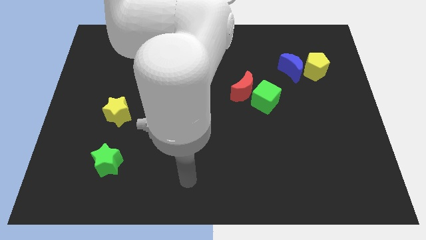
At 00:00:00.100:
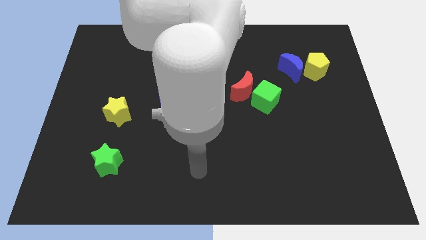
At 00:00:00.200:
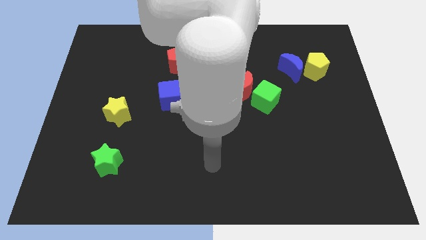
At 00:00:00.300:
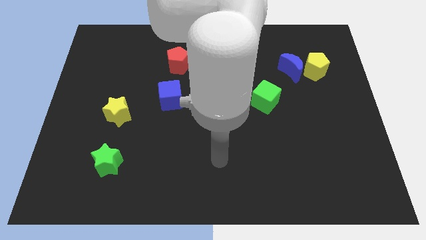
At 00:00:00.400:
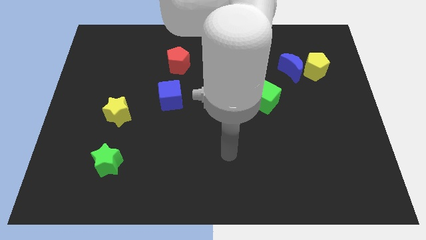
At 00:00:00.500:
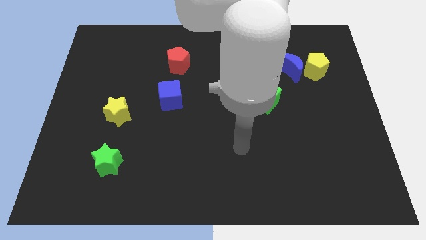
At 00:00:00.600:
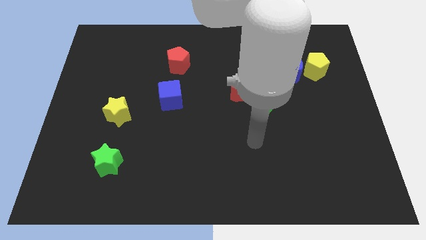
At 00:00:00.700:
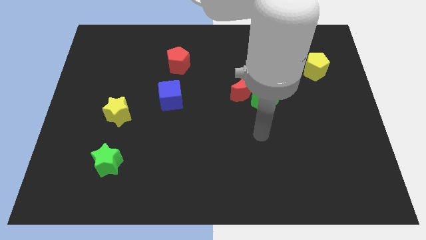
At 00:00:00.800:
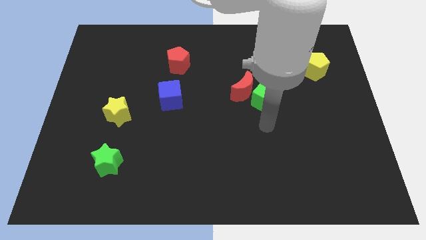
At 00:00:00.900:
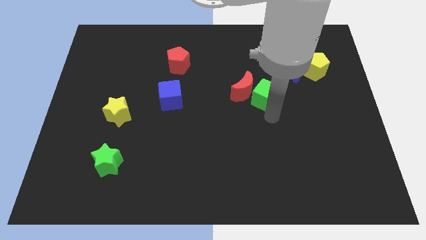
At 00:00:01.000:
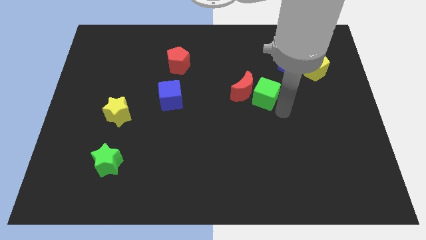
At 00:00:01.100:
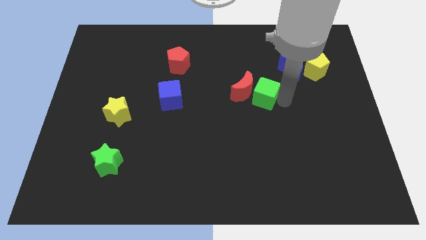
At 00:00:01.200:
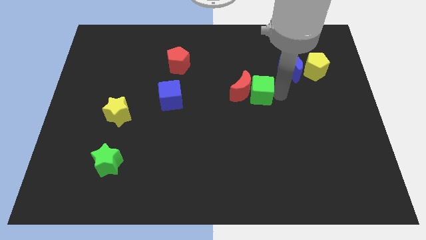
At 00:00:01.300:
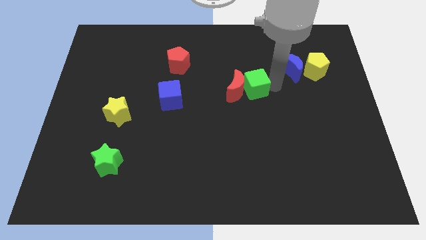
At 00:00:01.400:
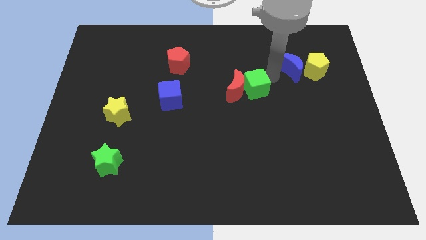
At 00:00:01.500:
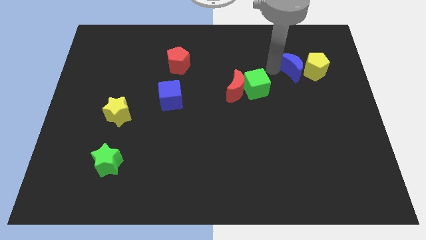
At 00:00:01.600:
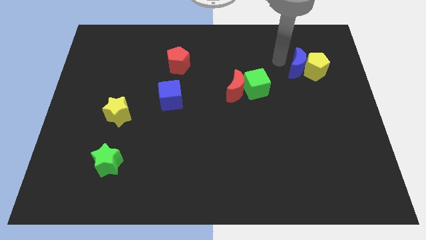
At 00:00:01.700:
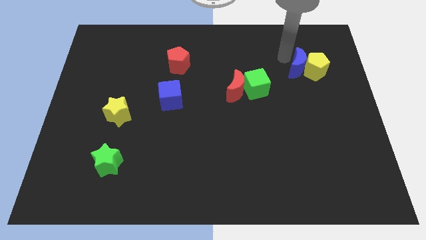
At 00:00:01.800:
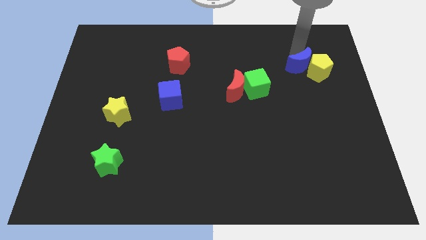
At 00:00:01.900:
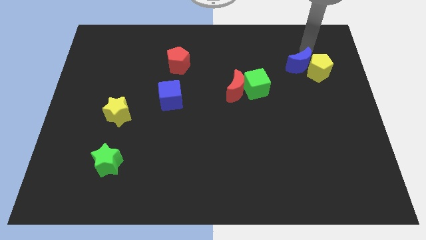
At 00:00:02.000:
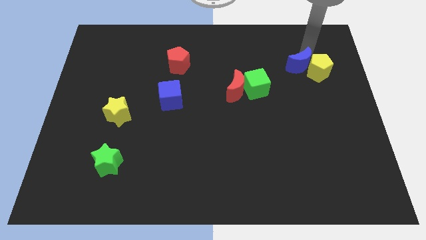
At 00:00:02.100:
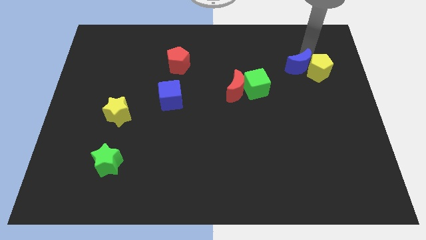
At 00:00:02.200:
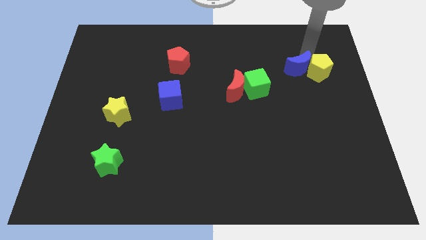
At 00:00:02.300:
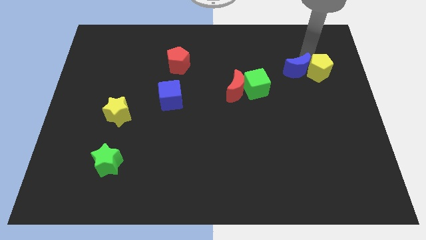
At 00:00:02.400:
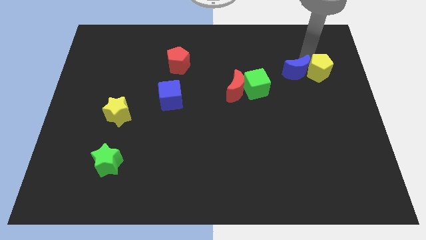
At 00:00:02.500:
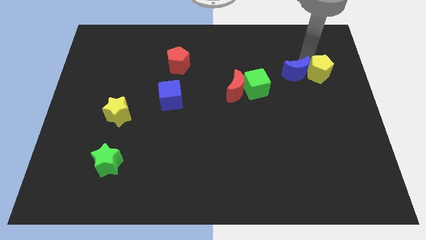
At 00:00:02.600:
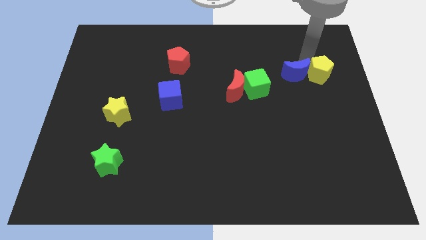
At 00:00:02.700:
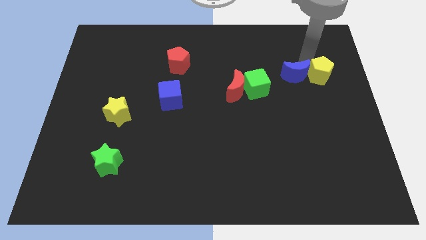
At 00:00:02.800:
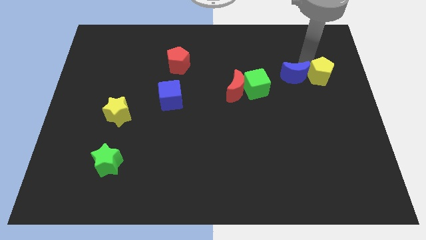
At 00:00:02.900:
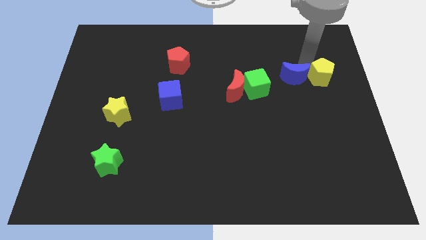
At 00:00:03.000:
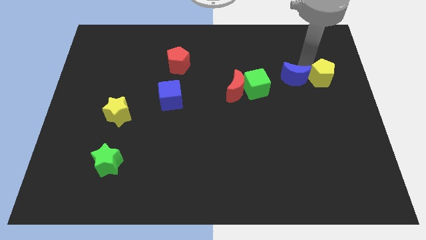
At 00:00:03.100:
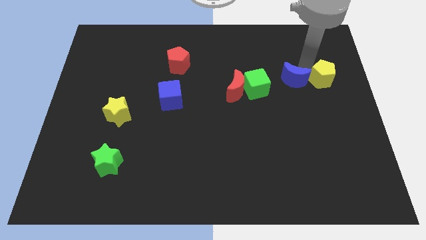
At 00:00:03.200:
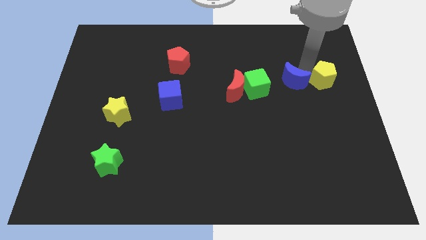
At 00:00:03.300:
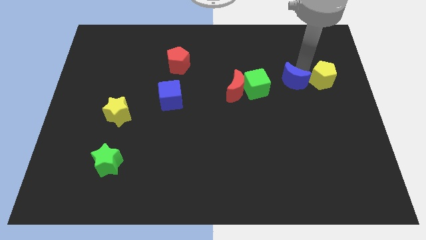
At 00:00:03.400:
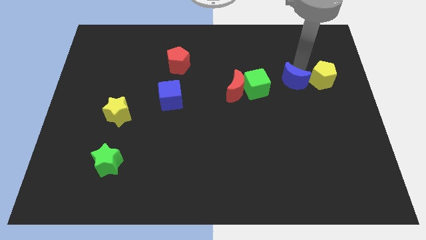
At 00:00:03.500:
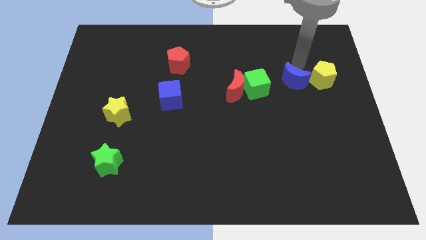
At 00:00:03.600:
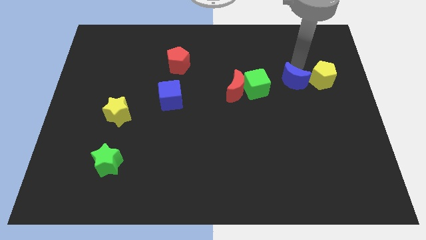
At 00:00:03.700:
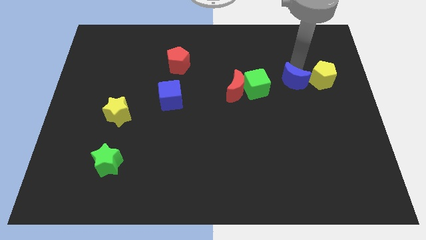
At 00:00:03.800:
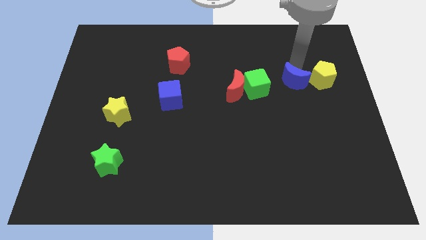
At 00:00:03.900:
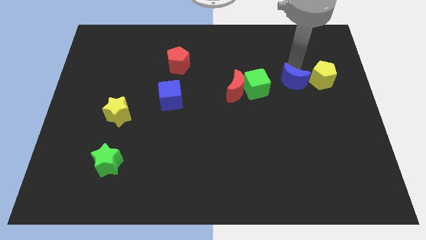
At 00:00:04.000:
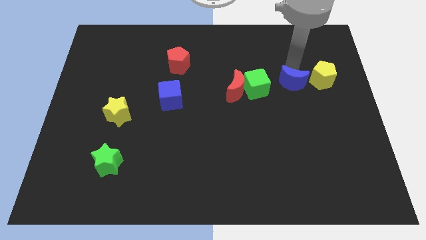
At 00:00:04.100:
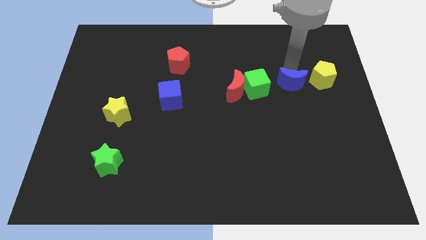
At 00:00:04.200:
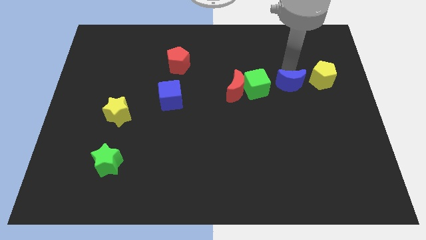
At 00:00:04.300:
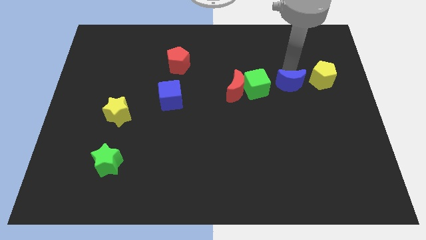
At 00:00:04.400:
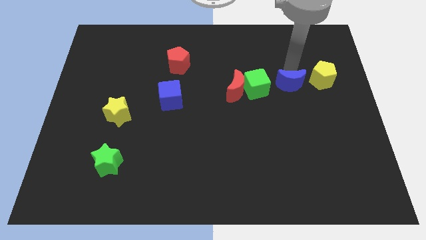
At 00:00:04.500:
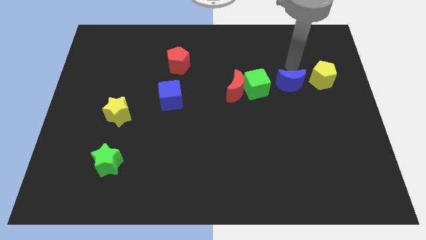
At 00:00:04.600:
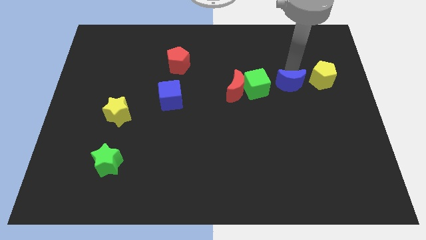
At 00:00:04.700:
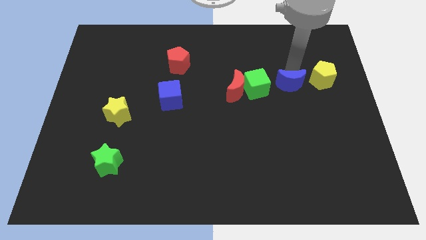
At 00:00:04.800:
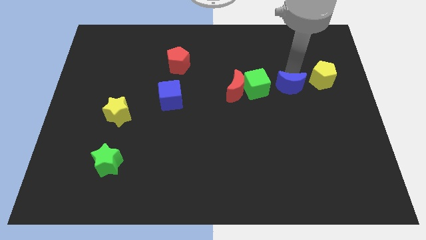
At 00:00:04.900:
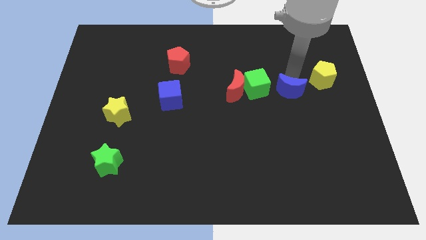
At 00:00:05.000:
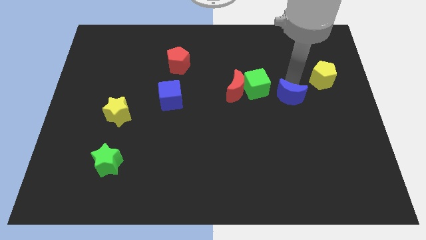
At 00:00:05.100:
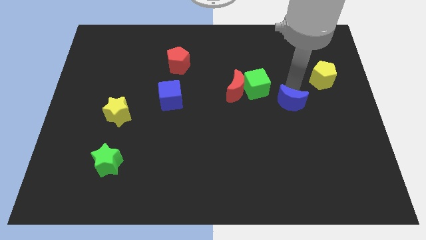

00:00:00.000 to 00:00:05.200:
move the blue moon a little diagonally downwards and left

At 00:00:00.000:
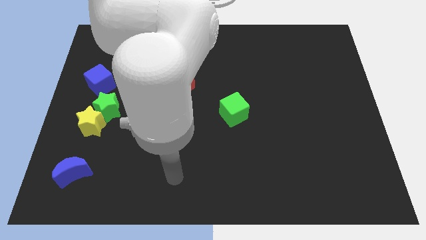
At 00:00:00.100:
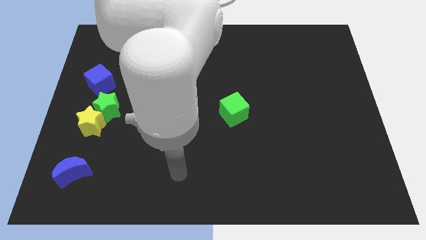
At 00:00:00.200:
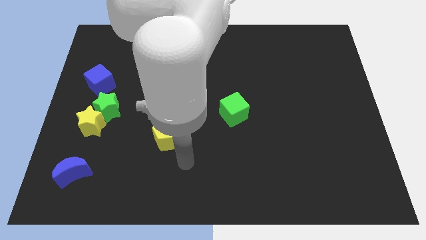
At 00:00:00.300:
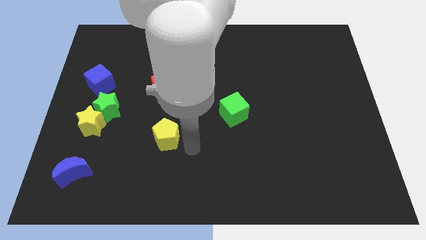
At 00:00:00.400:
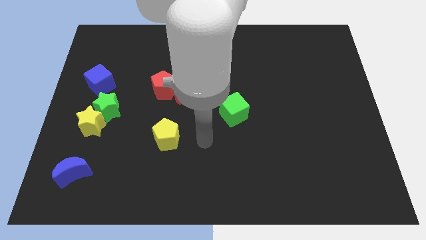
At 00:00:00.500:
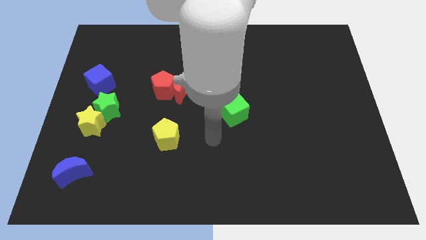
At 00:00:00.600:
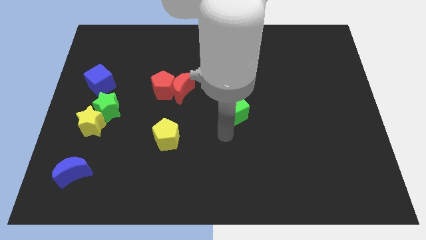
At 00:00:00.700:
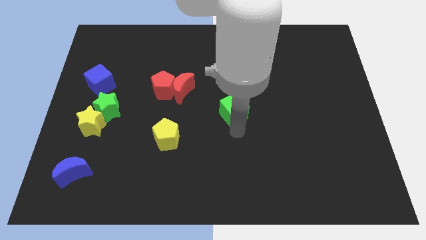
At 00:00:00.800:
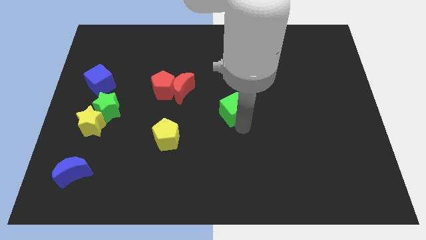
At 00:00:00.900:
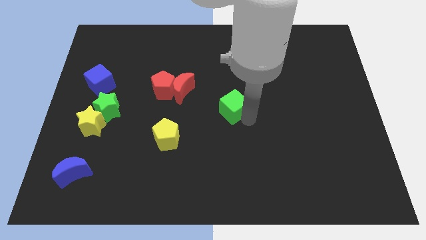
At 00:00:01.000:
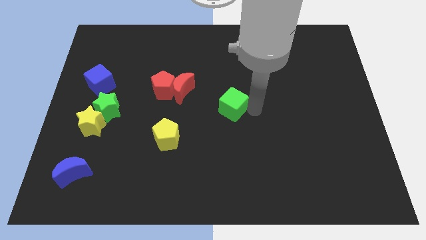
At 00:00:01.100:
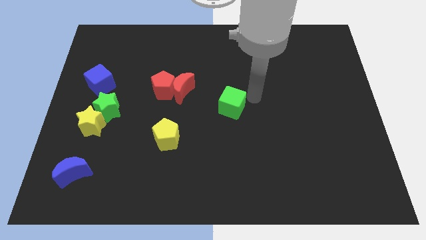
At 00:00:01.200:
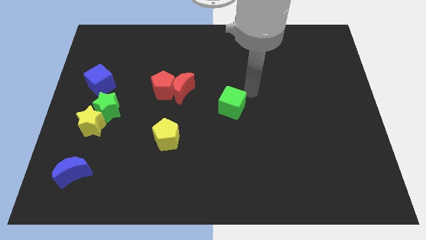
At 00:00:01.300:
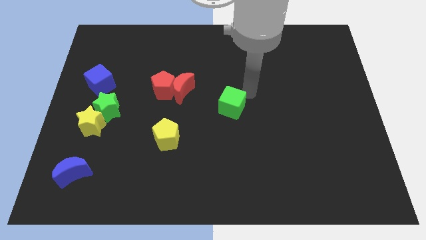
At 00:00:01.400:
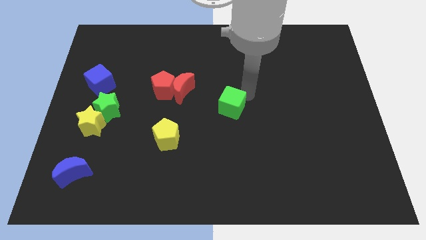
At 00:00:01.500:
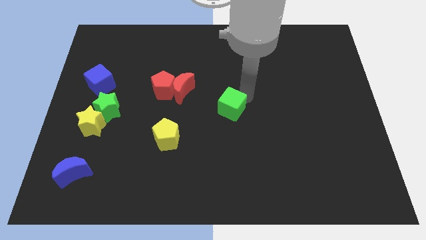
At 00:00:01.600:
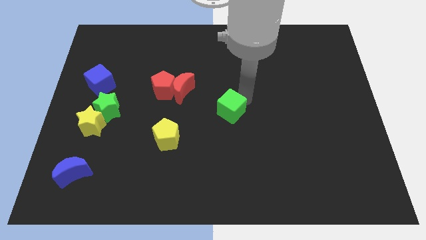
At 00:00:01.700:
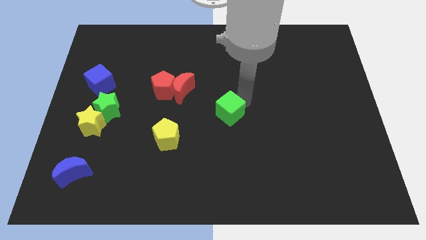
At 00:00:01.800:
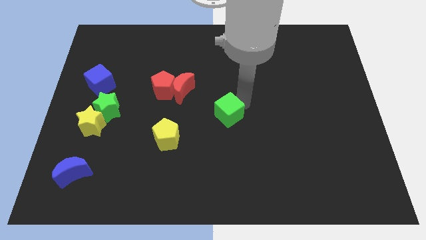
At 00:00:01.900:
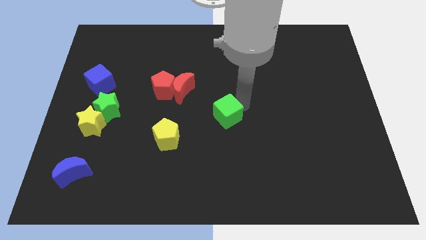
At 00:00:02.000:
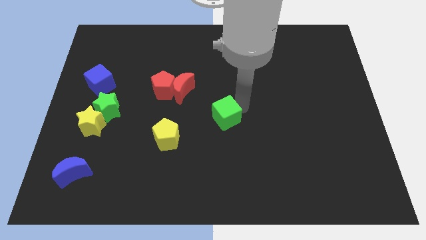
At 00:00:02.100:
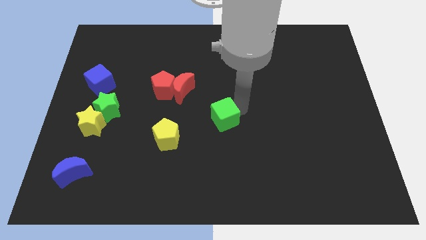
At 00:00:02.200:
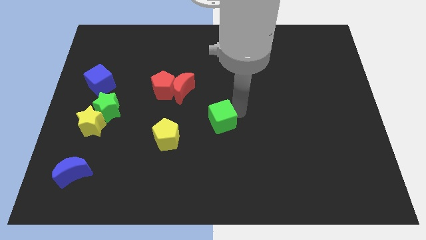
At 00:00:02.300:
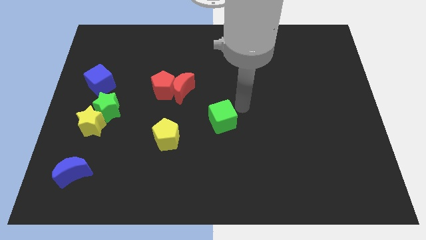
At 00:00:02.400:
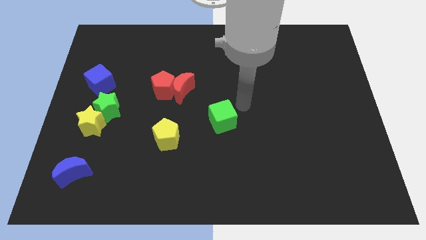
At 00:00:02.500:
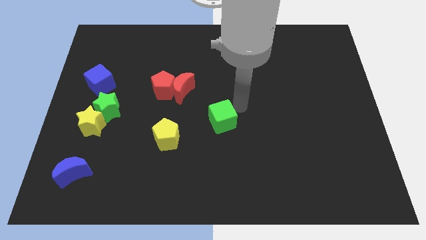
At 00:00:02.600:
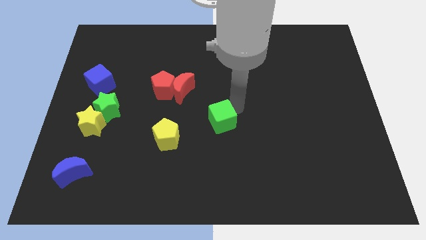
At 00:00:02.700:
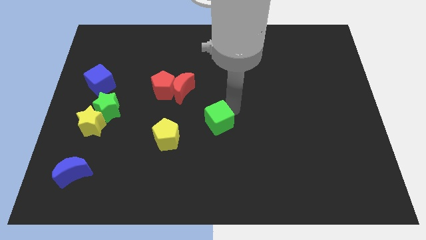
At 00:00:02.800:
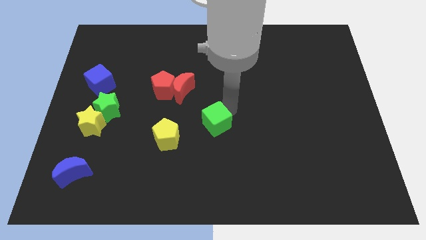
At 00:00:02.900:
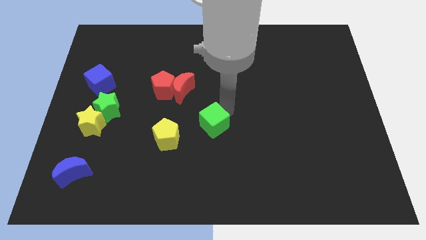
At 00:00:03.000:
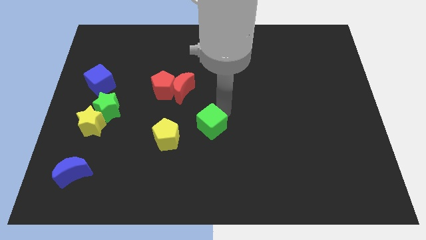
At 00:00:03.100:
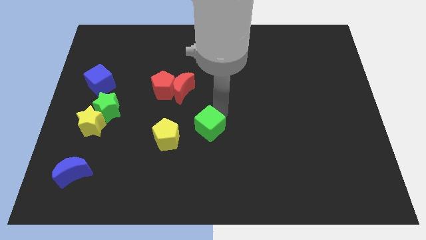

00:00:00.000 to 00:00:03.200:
push the green cube slightly downwards and left diagonally
